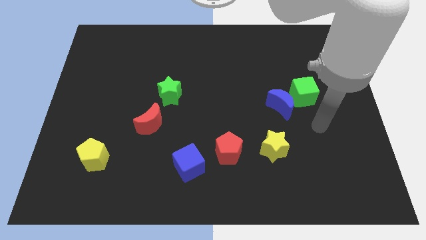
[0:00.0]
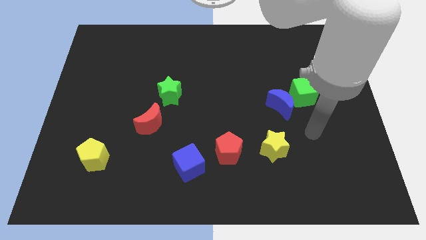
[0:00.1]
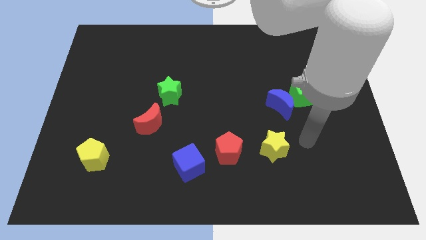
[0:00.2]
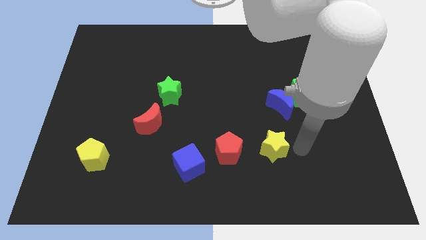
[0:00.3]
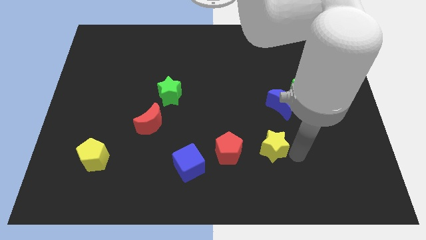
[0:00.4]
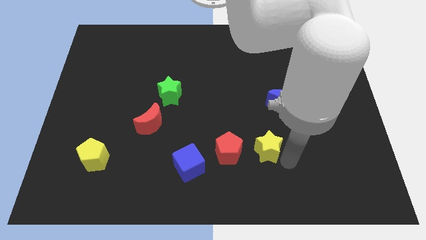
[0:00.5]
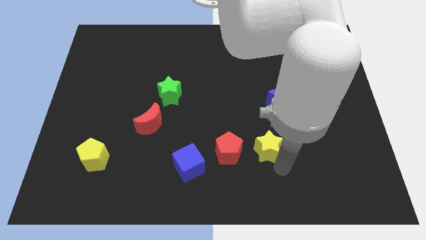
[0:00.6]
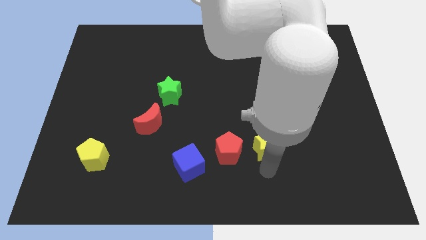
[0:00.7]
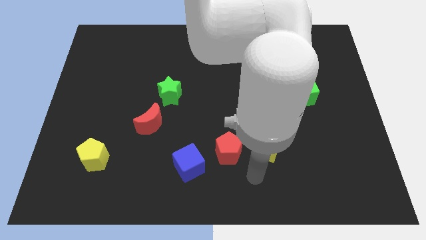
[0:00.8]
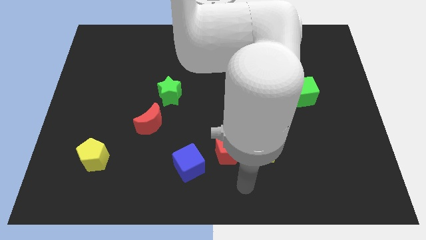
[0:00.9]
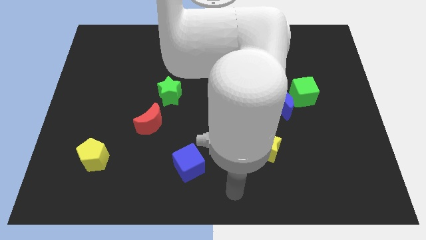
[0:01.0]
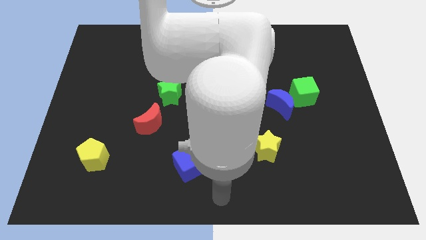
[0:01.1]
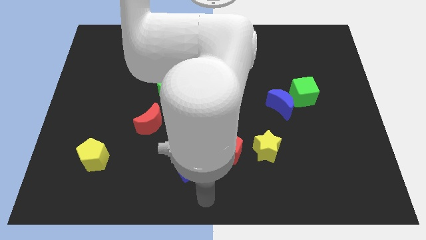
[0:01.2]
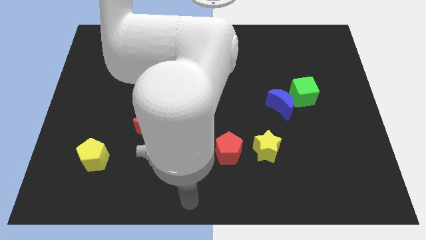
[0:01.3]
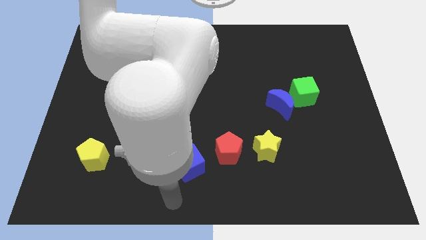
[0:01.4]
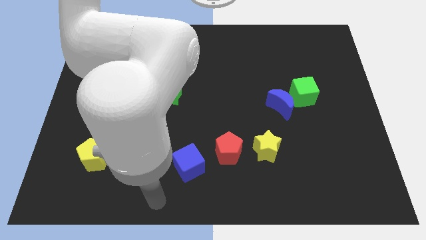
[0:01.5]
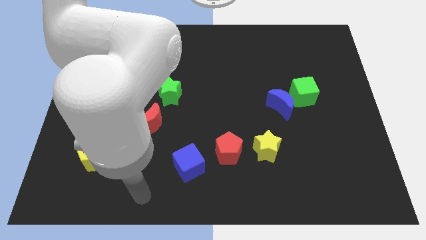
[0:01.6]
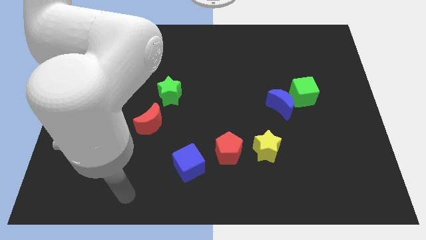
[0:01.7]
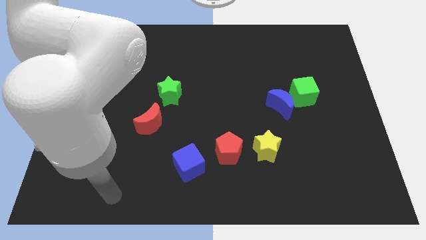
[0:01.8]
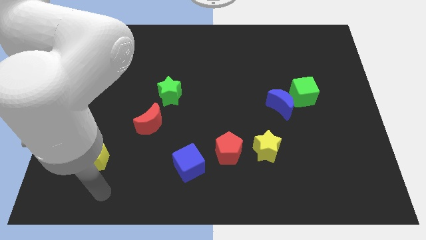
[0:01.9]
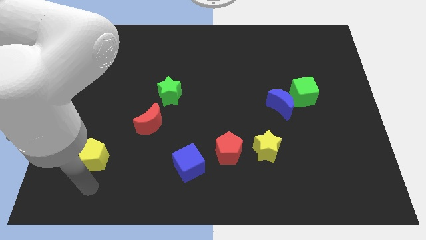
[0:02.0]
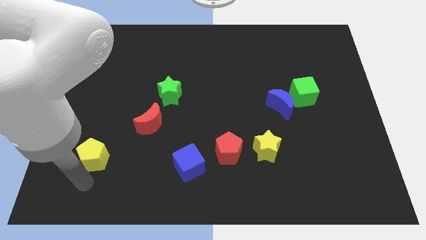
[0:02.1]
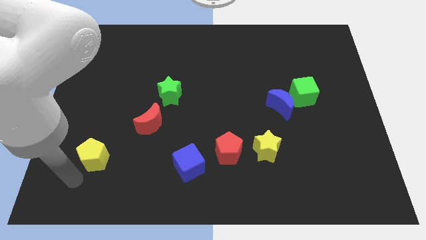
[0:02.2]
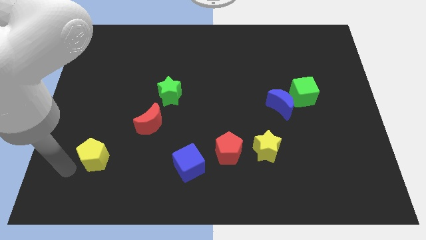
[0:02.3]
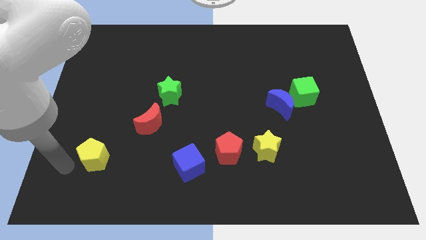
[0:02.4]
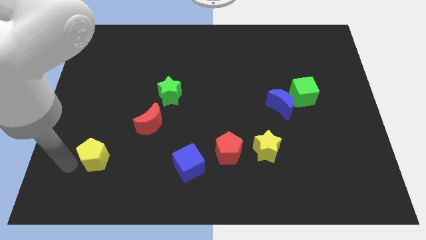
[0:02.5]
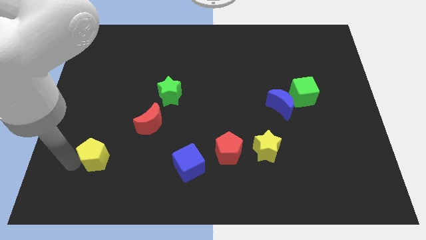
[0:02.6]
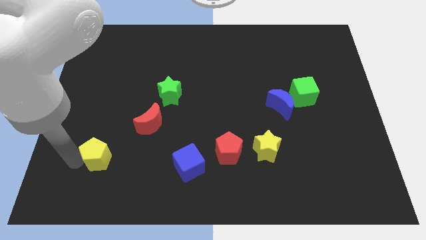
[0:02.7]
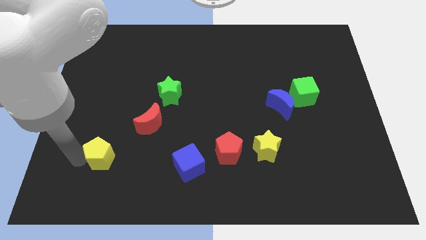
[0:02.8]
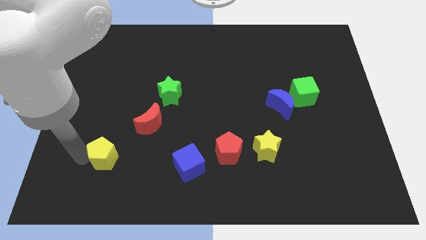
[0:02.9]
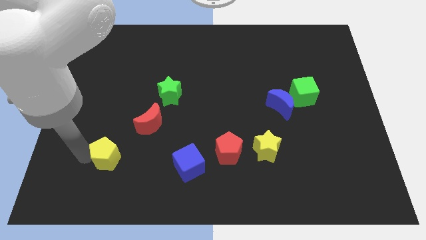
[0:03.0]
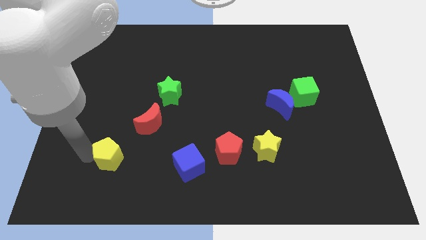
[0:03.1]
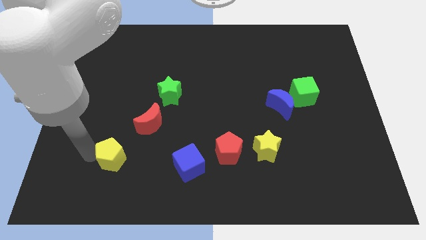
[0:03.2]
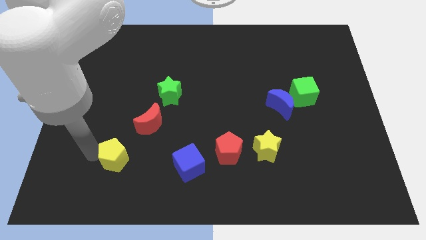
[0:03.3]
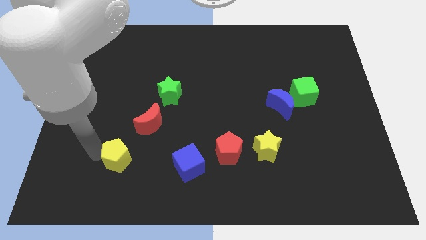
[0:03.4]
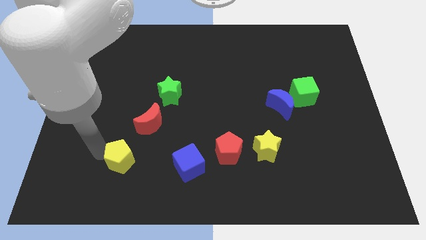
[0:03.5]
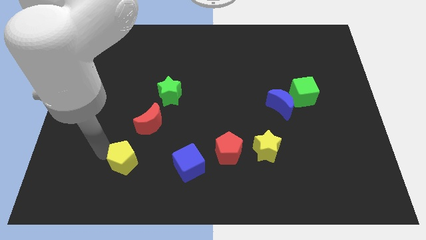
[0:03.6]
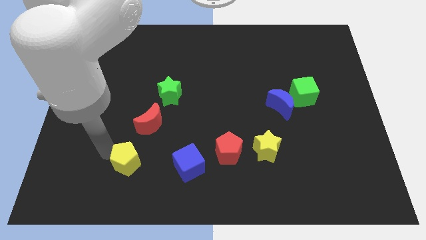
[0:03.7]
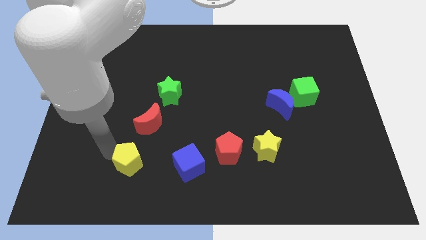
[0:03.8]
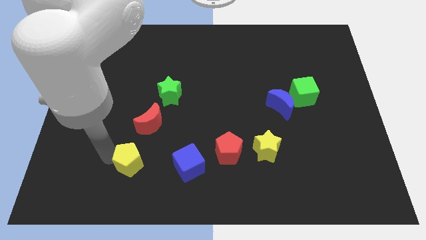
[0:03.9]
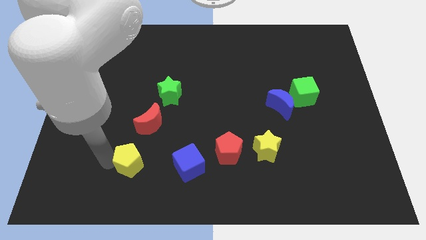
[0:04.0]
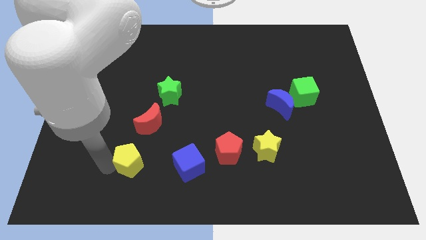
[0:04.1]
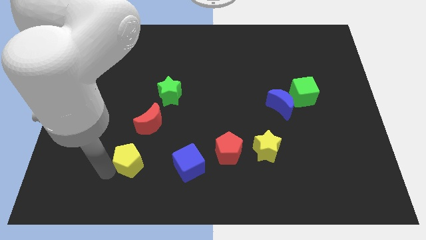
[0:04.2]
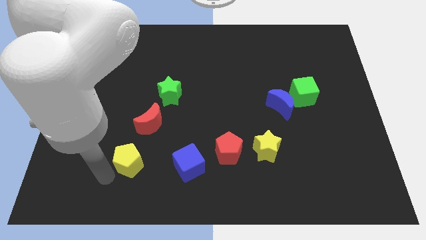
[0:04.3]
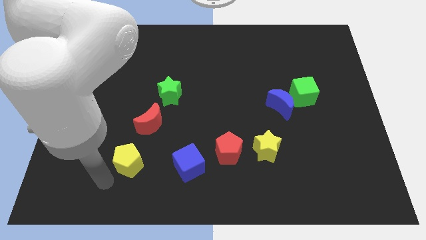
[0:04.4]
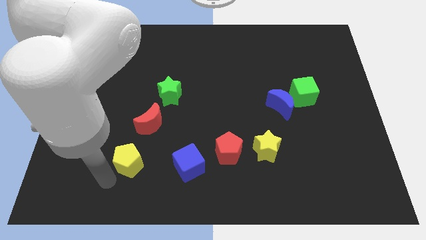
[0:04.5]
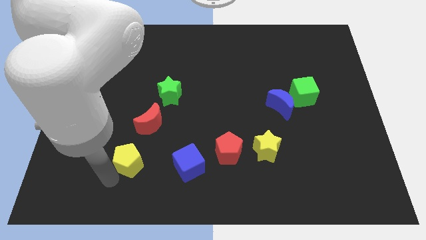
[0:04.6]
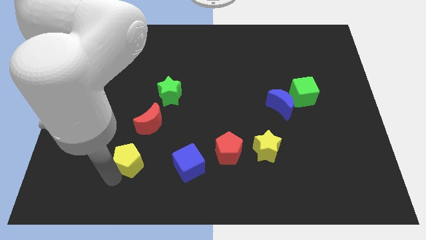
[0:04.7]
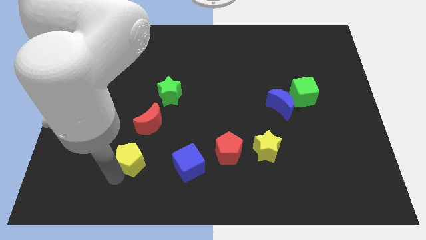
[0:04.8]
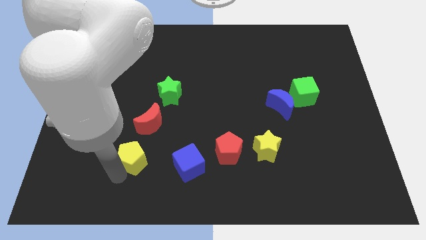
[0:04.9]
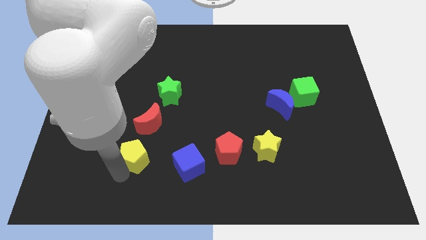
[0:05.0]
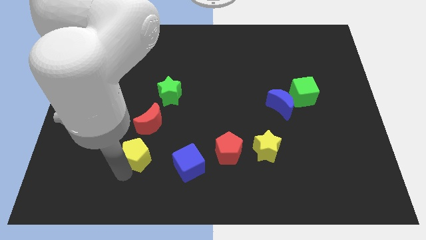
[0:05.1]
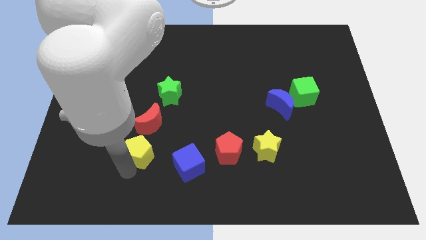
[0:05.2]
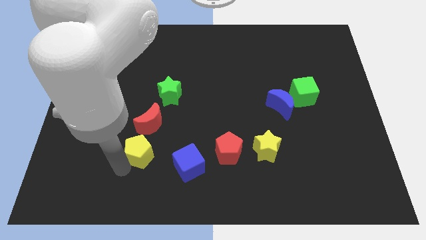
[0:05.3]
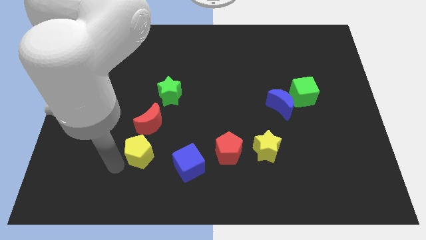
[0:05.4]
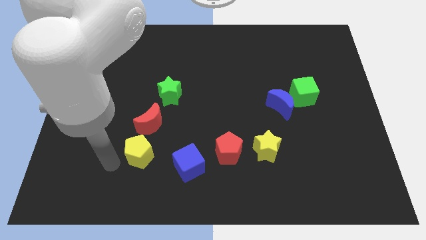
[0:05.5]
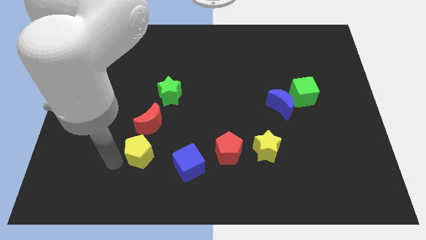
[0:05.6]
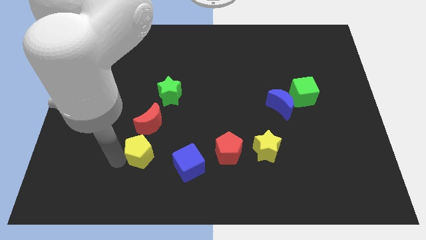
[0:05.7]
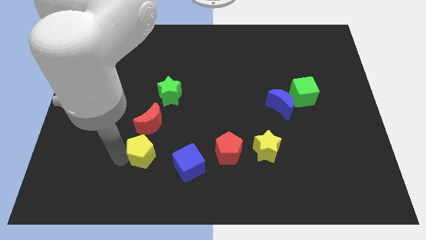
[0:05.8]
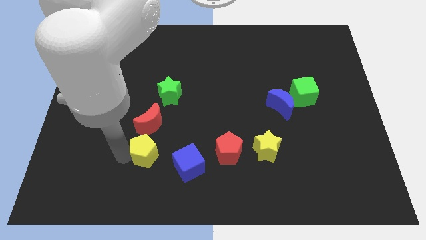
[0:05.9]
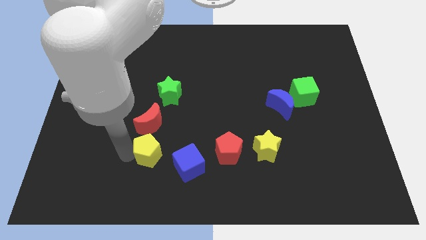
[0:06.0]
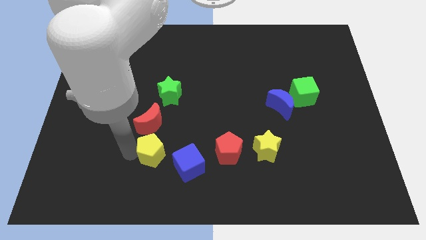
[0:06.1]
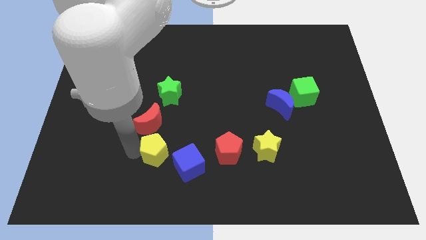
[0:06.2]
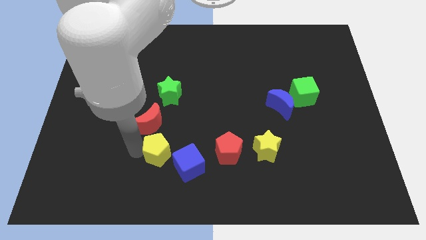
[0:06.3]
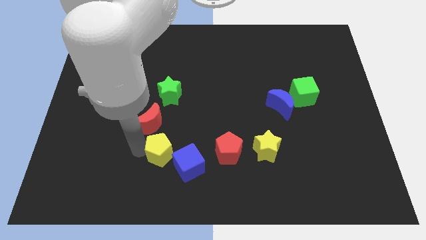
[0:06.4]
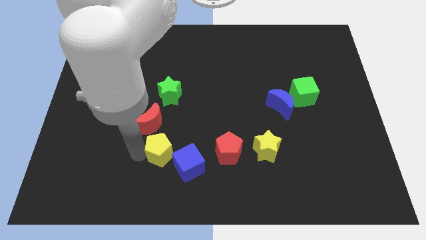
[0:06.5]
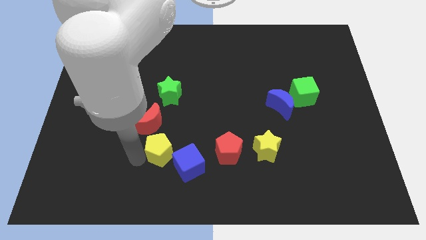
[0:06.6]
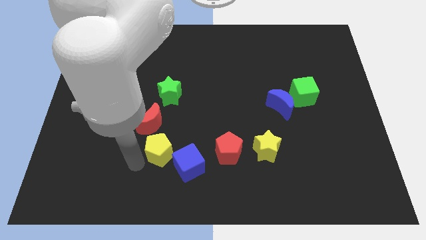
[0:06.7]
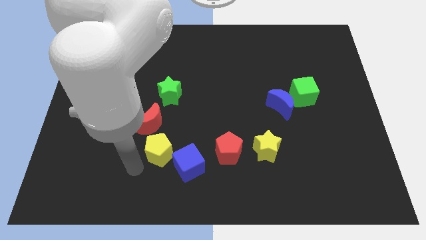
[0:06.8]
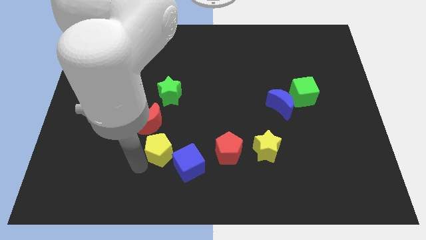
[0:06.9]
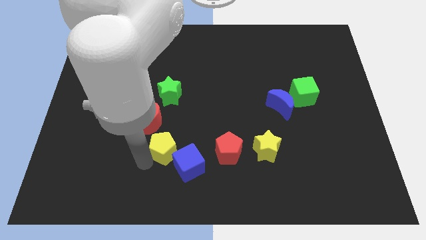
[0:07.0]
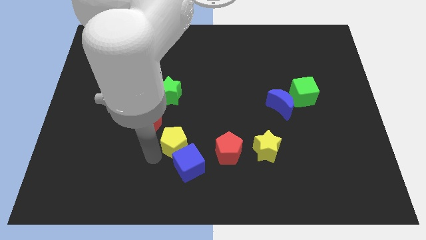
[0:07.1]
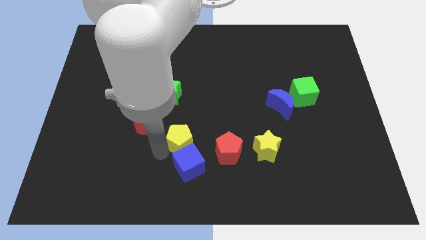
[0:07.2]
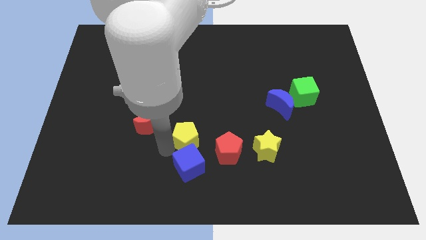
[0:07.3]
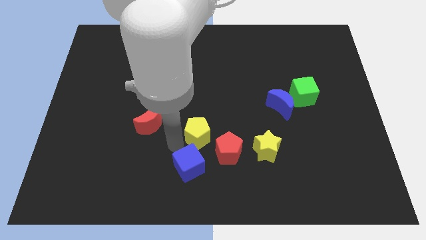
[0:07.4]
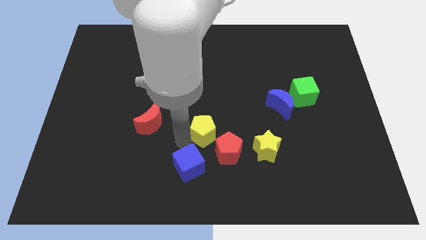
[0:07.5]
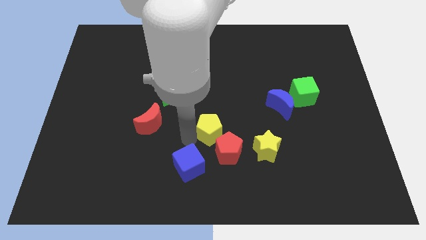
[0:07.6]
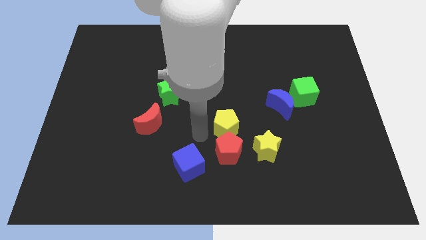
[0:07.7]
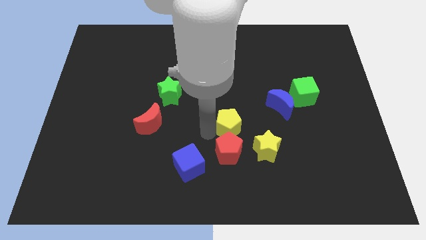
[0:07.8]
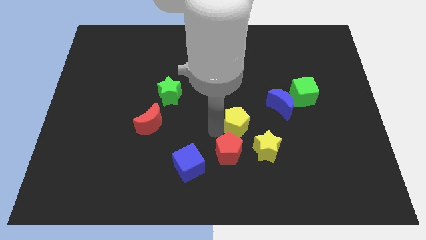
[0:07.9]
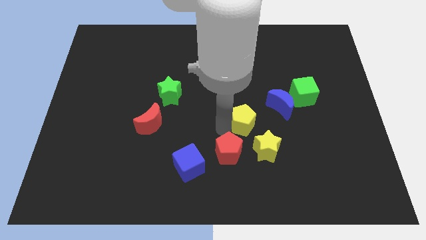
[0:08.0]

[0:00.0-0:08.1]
put the yellow pentagon to the top side of the yellow star
